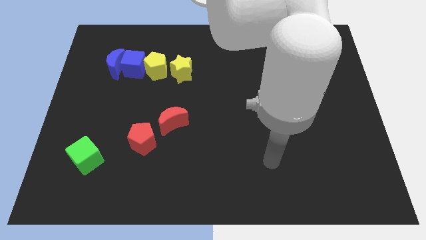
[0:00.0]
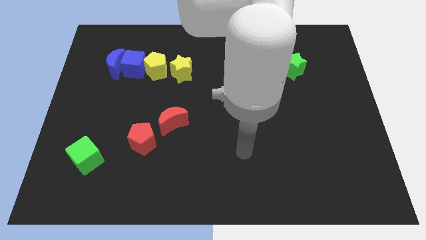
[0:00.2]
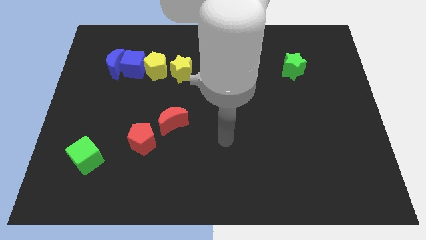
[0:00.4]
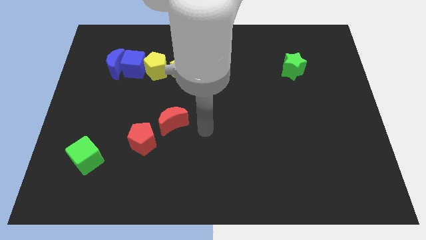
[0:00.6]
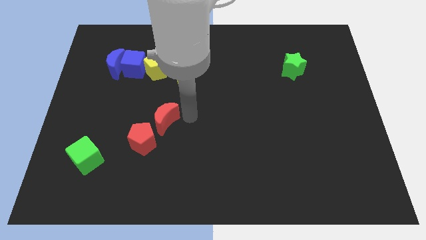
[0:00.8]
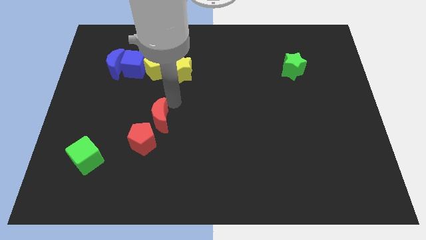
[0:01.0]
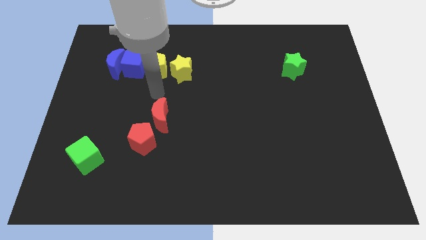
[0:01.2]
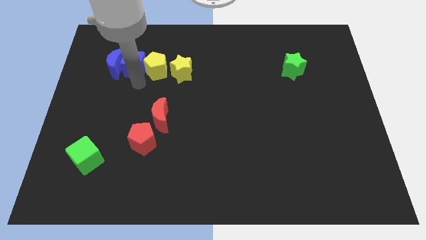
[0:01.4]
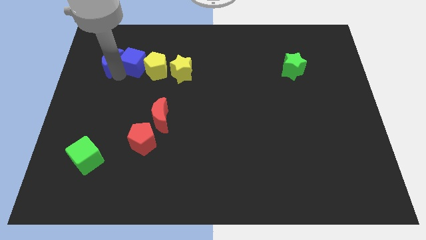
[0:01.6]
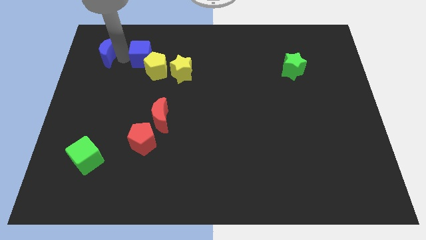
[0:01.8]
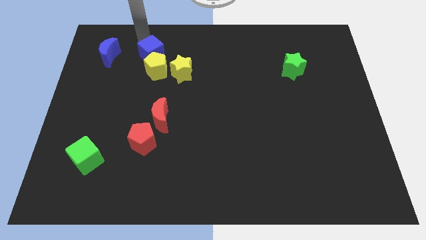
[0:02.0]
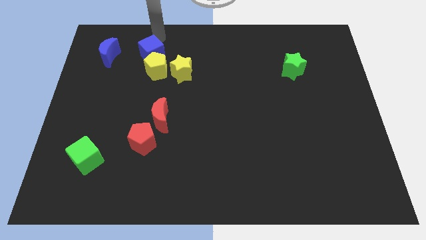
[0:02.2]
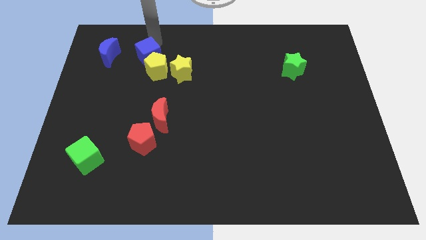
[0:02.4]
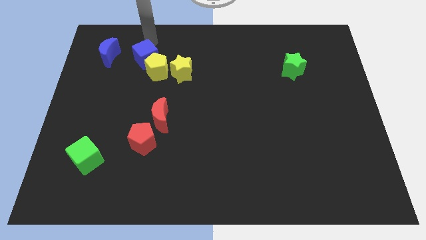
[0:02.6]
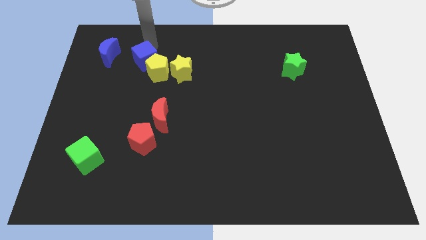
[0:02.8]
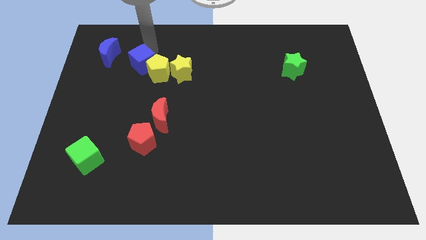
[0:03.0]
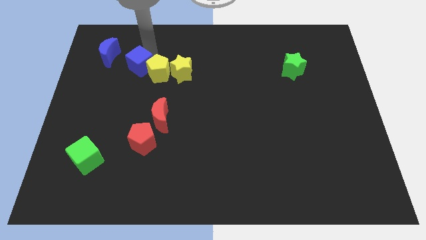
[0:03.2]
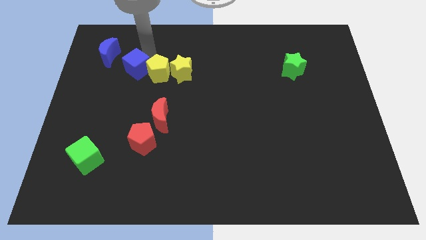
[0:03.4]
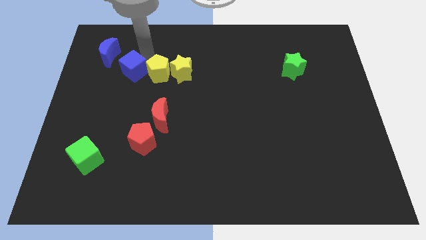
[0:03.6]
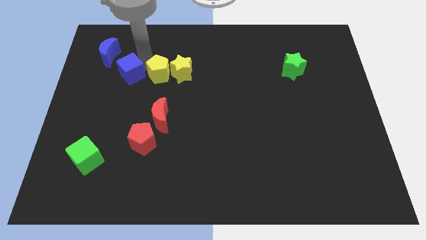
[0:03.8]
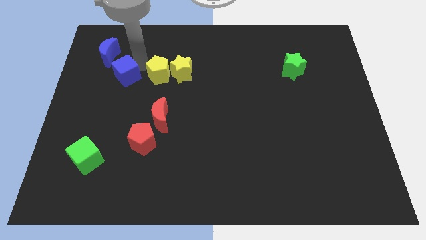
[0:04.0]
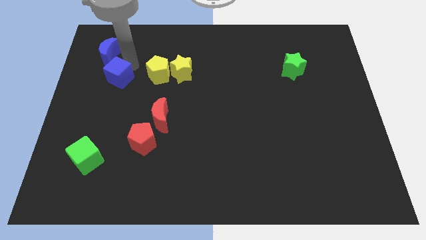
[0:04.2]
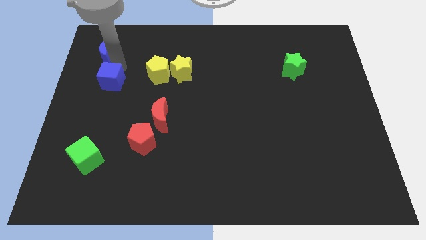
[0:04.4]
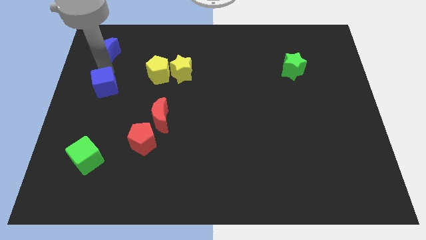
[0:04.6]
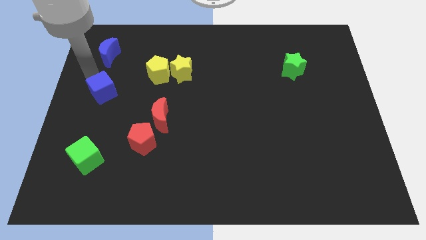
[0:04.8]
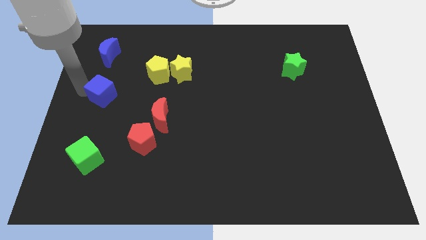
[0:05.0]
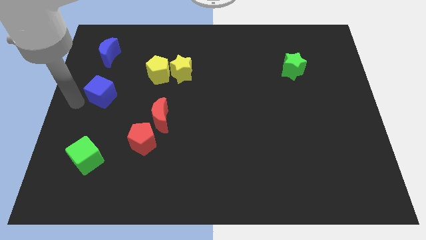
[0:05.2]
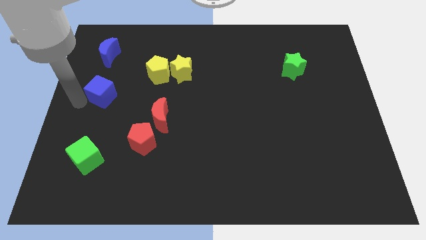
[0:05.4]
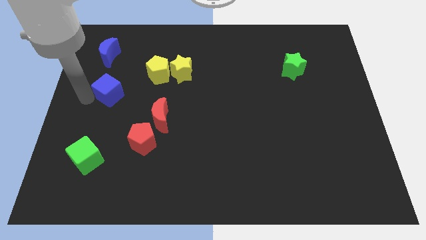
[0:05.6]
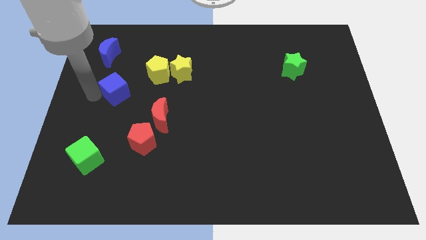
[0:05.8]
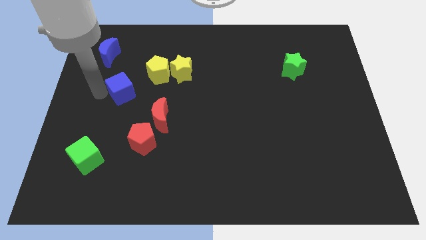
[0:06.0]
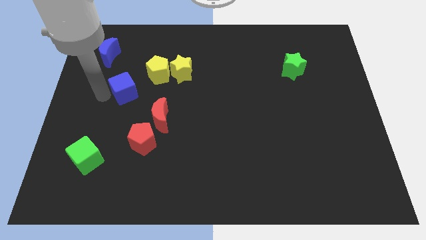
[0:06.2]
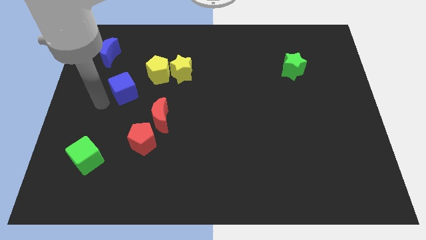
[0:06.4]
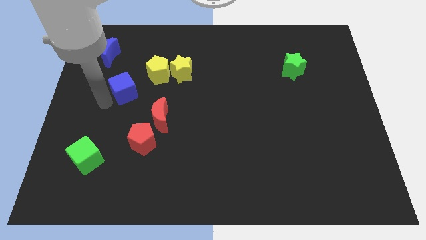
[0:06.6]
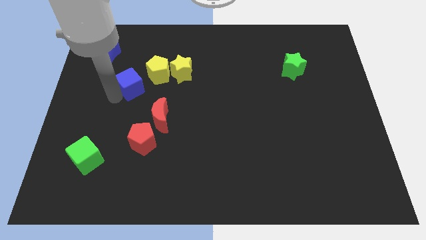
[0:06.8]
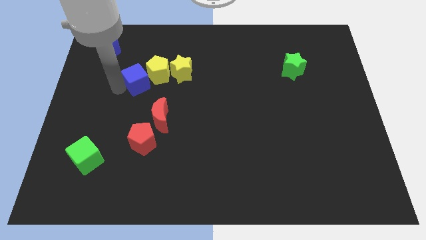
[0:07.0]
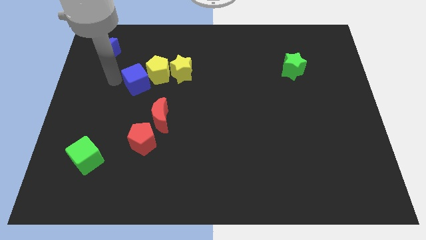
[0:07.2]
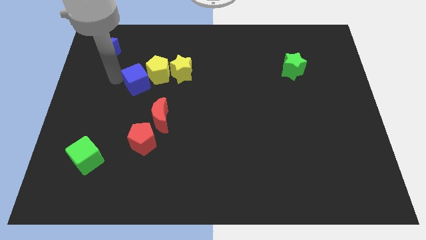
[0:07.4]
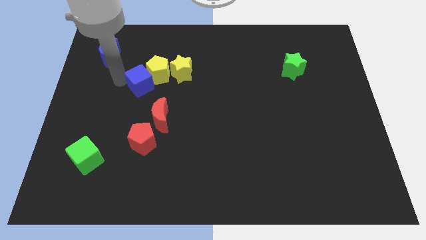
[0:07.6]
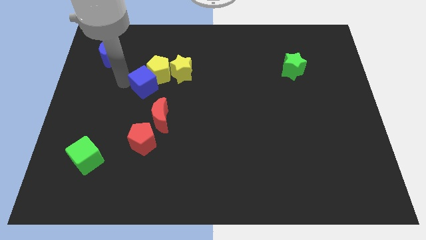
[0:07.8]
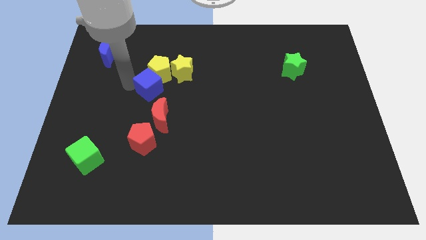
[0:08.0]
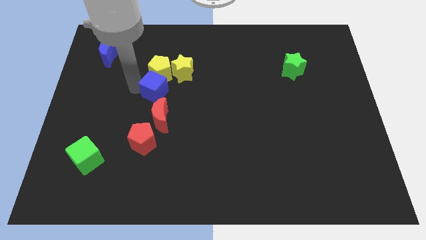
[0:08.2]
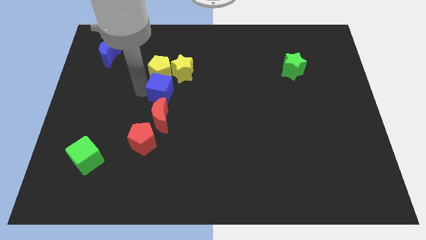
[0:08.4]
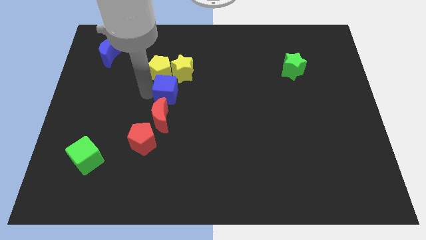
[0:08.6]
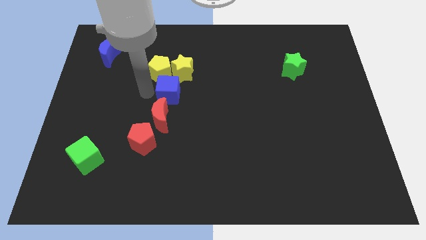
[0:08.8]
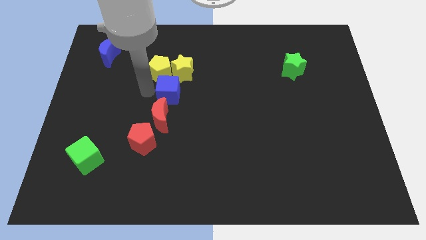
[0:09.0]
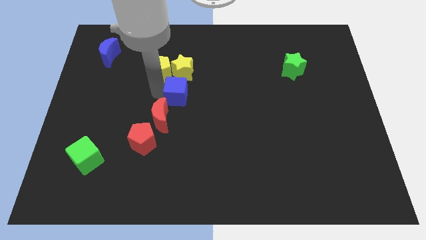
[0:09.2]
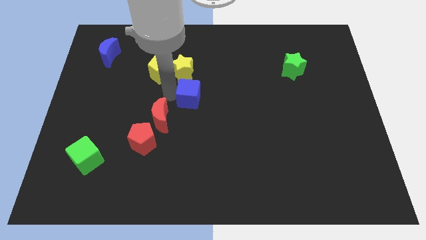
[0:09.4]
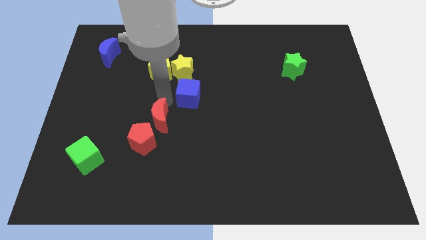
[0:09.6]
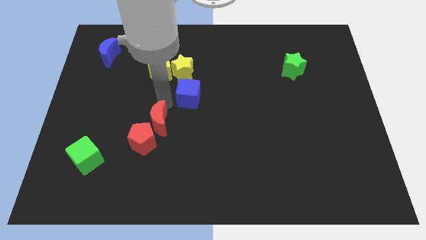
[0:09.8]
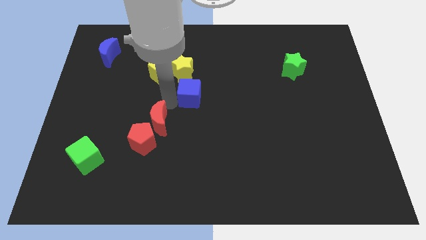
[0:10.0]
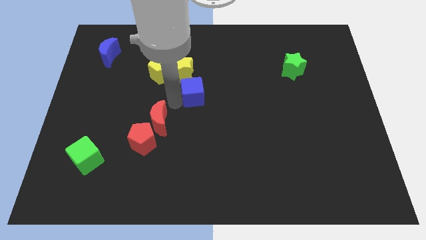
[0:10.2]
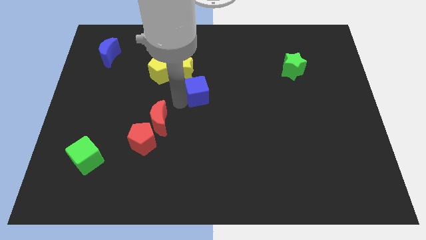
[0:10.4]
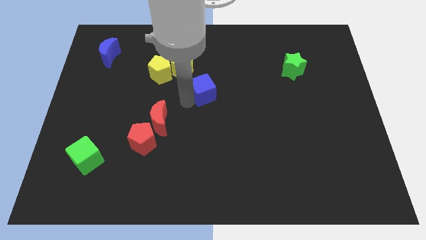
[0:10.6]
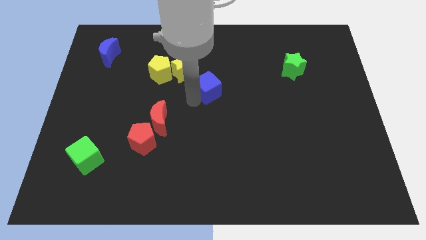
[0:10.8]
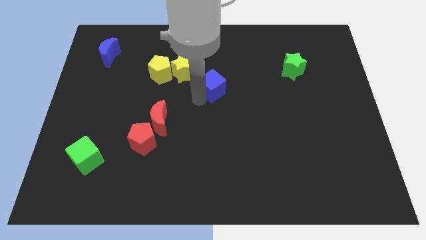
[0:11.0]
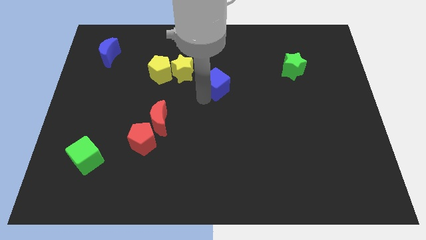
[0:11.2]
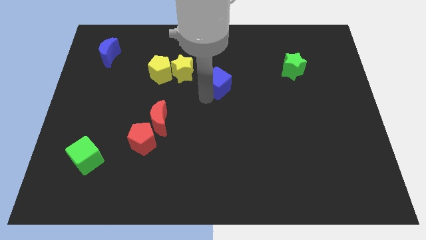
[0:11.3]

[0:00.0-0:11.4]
slide the blue cube to the right

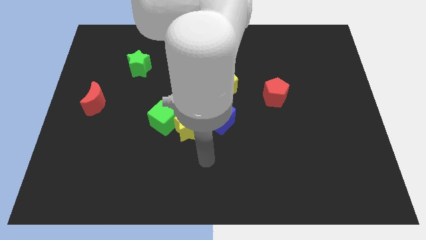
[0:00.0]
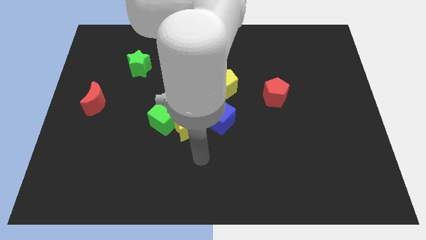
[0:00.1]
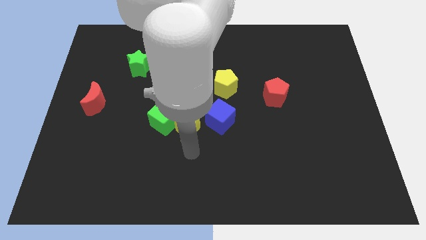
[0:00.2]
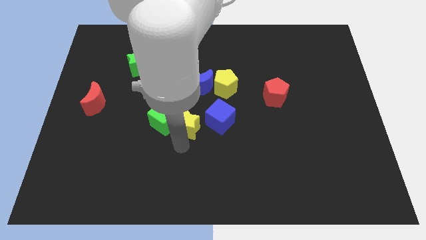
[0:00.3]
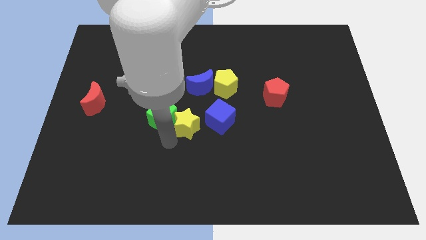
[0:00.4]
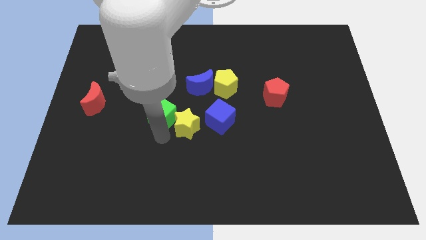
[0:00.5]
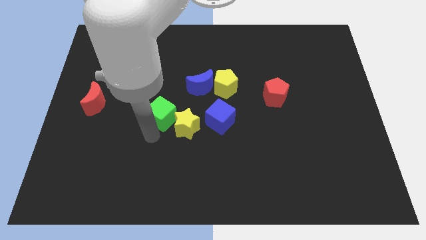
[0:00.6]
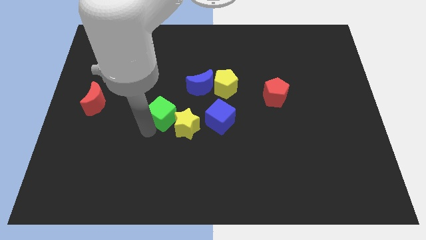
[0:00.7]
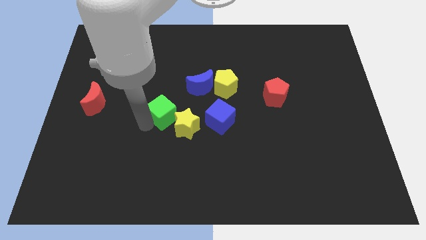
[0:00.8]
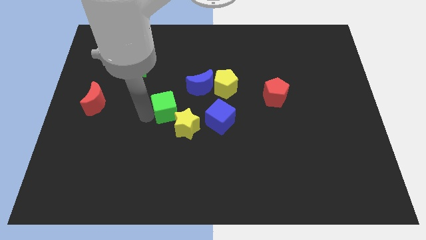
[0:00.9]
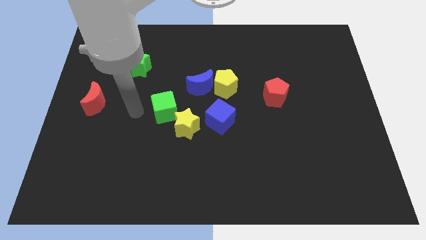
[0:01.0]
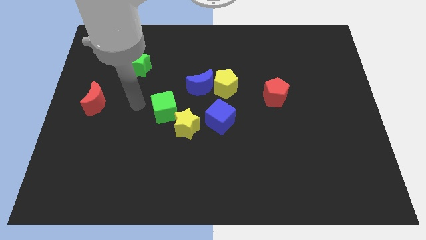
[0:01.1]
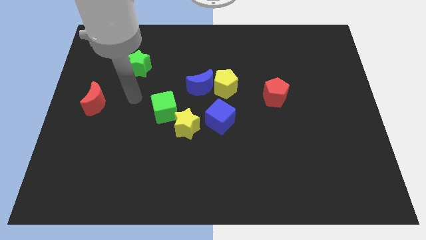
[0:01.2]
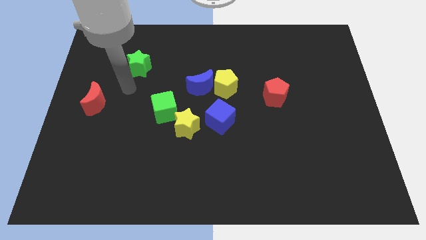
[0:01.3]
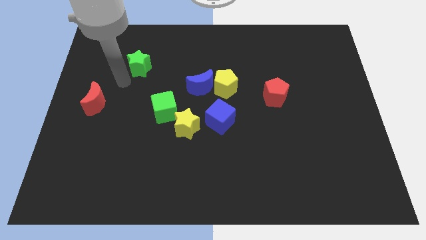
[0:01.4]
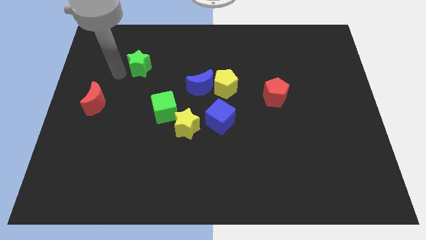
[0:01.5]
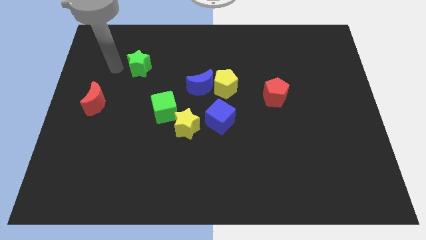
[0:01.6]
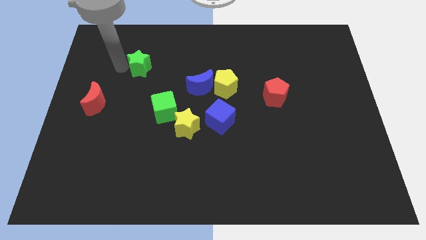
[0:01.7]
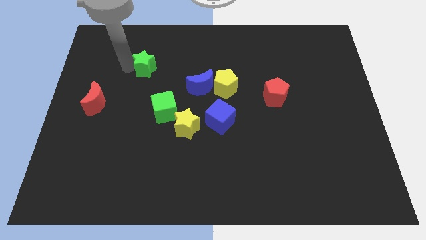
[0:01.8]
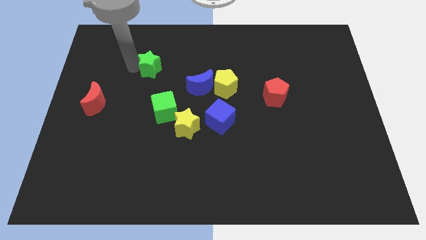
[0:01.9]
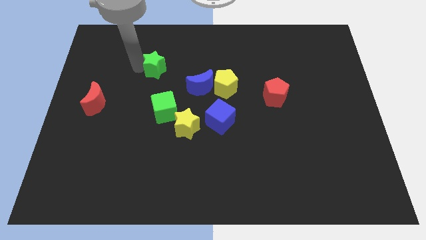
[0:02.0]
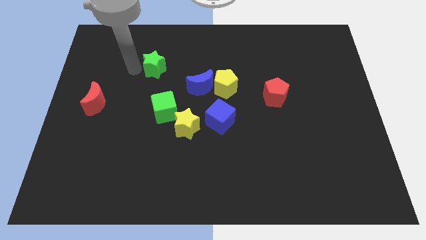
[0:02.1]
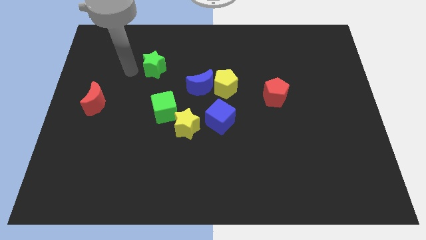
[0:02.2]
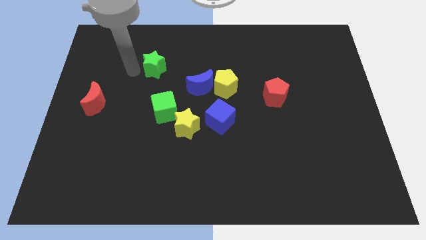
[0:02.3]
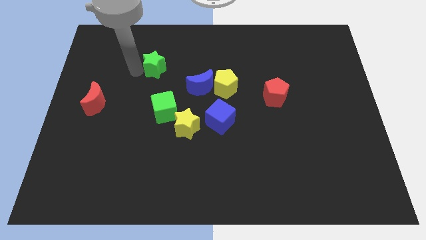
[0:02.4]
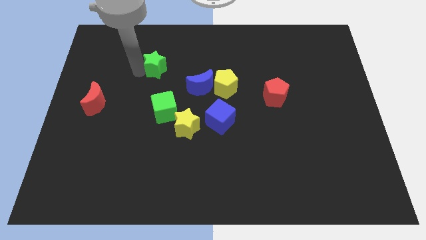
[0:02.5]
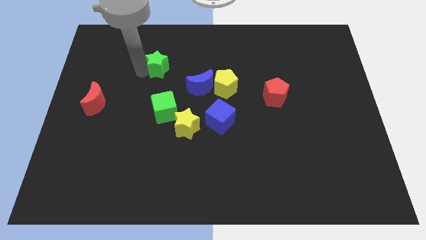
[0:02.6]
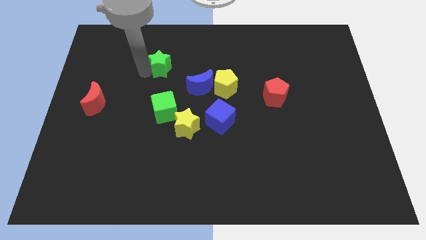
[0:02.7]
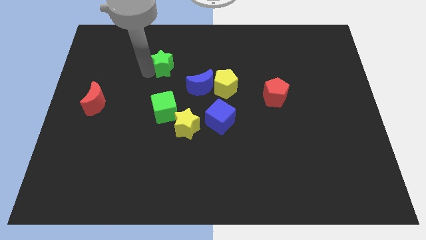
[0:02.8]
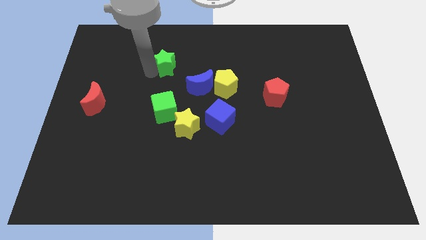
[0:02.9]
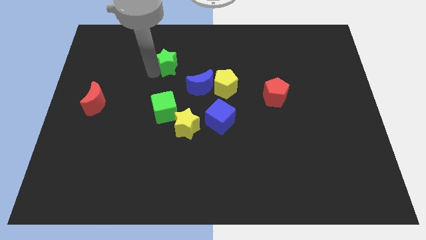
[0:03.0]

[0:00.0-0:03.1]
push the green star a little to the right
